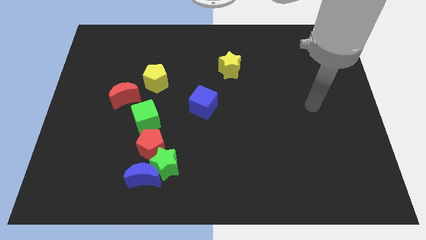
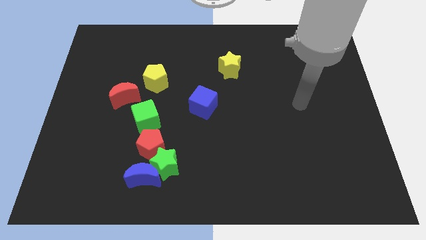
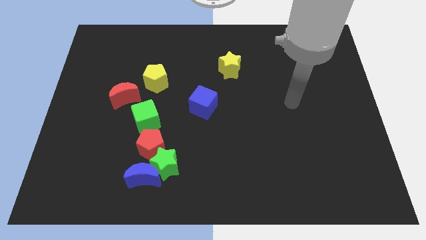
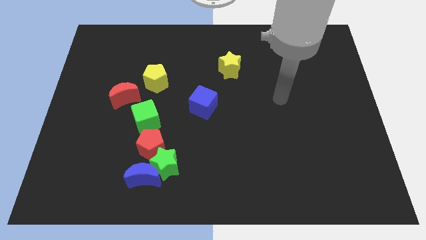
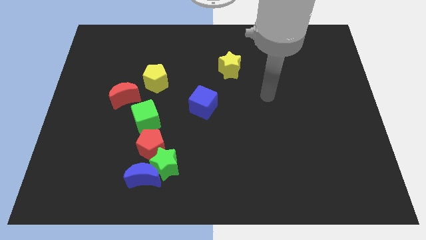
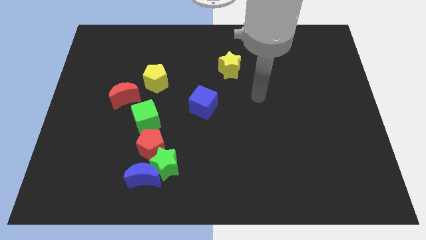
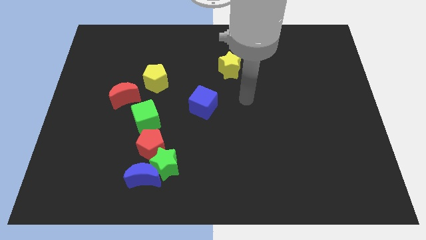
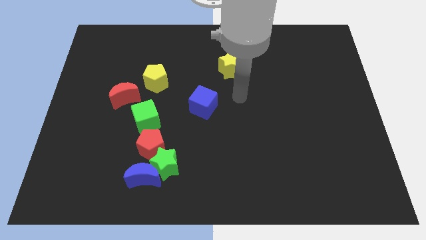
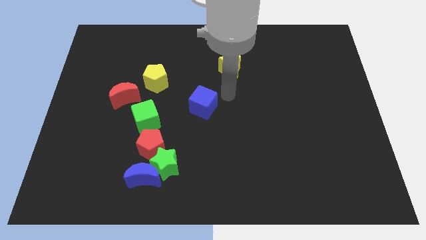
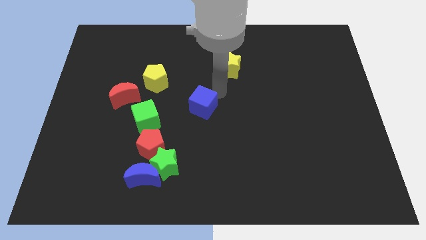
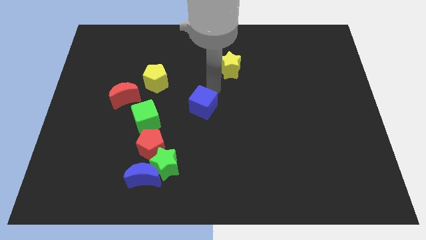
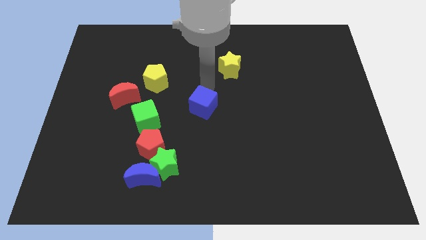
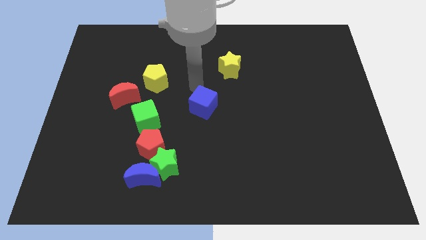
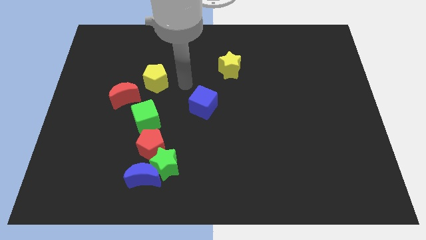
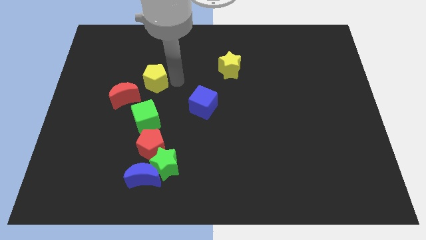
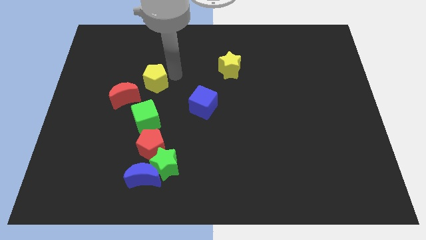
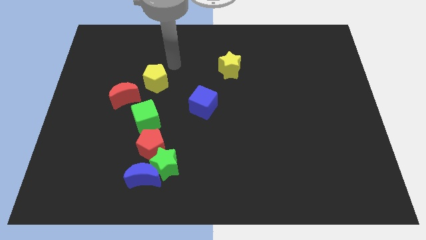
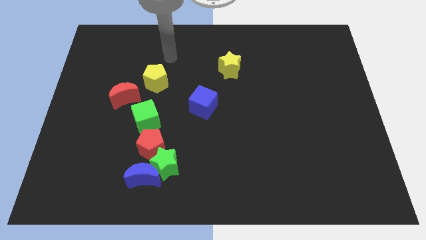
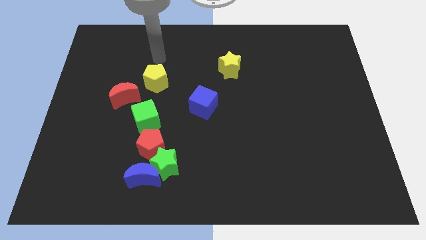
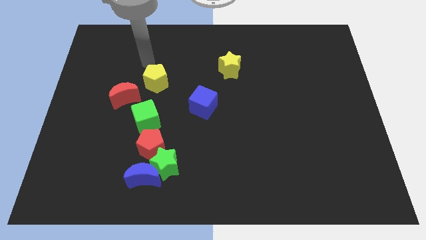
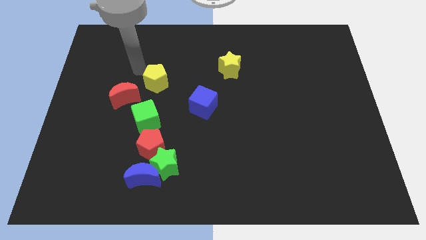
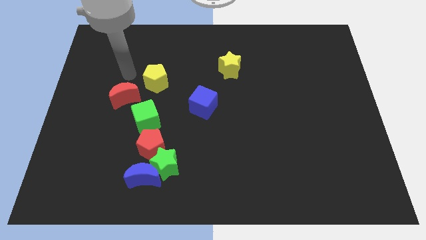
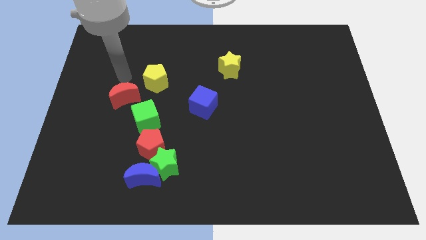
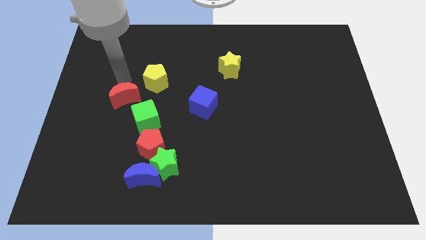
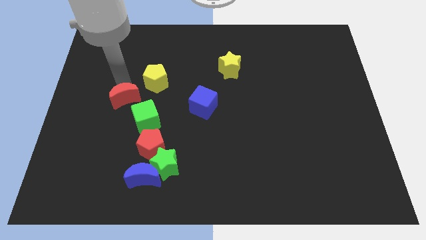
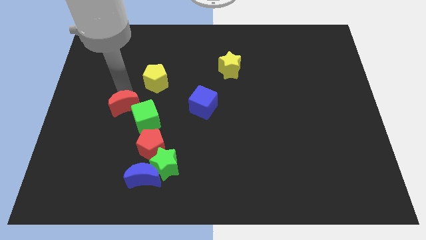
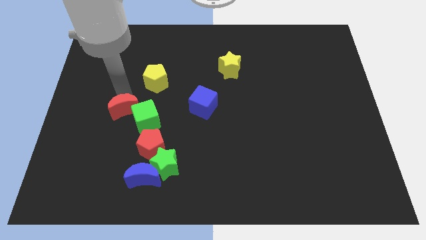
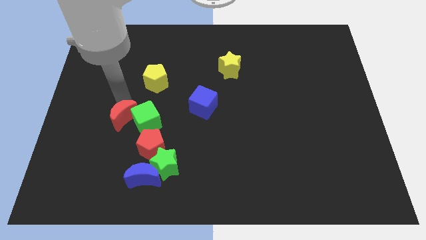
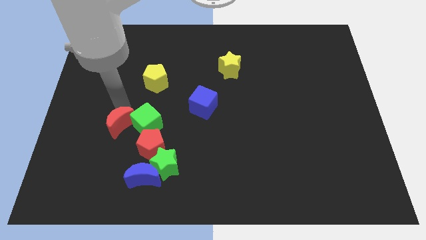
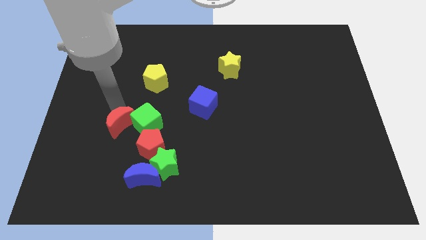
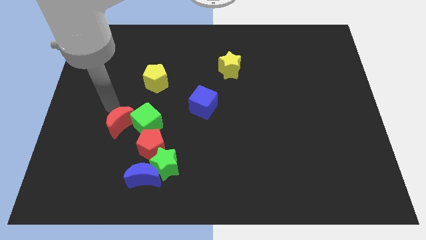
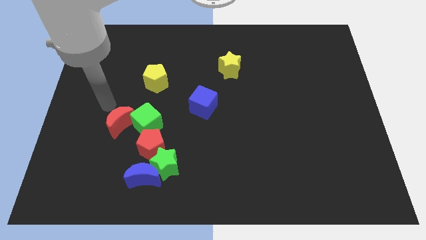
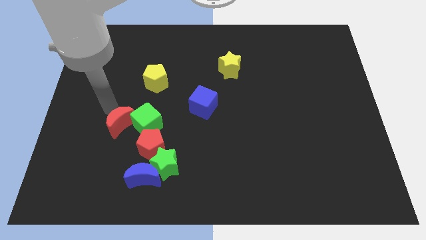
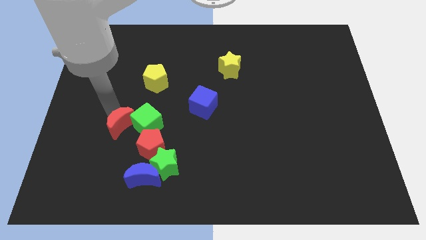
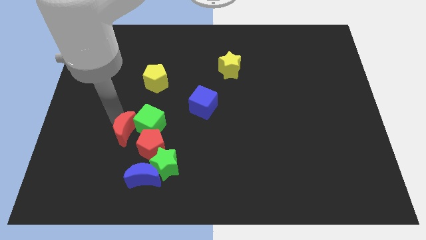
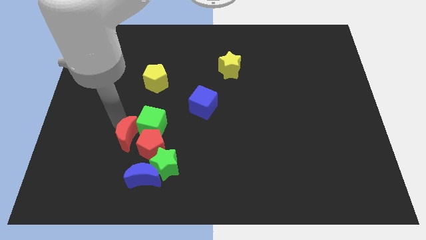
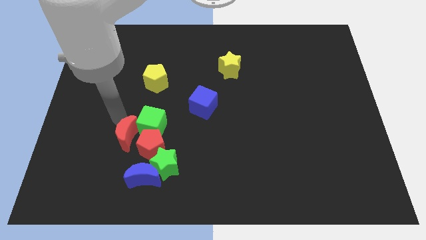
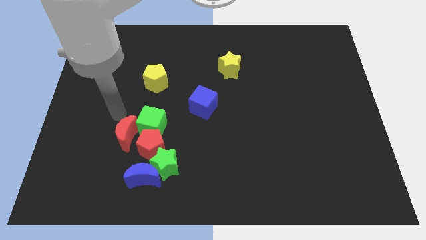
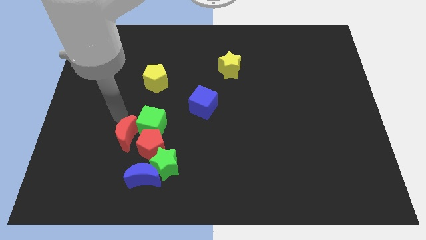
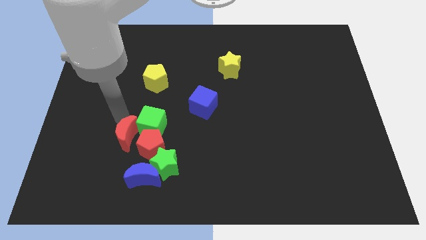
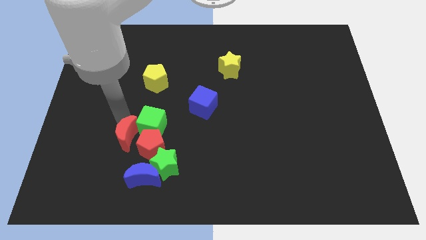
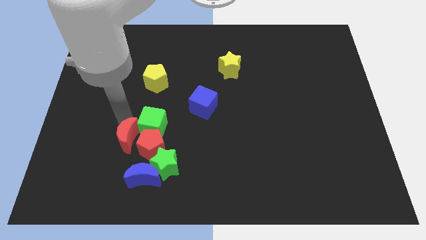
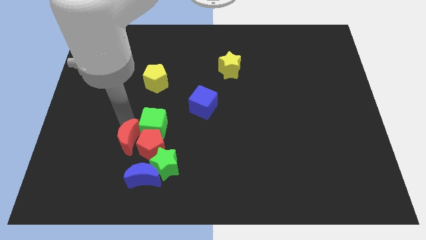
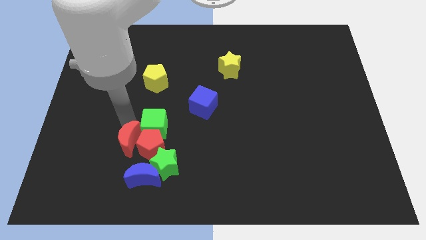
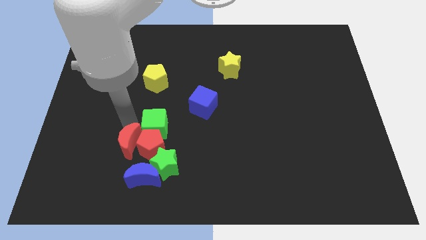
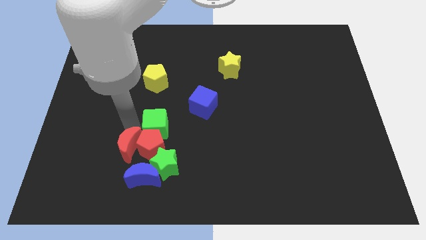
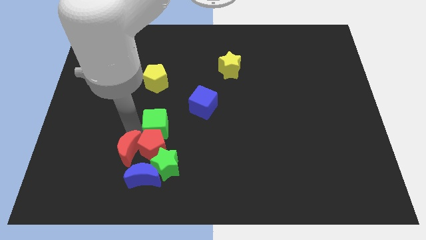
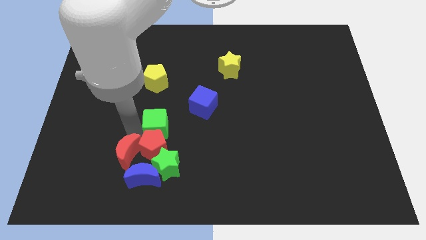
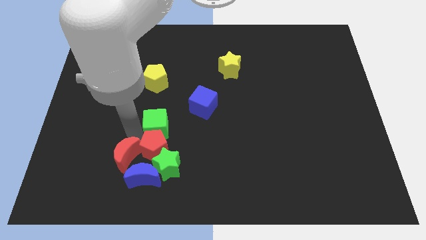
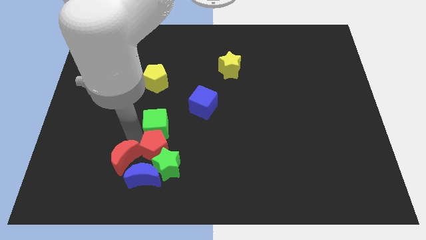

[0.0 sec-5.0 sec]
push the red moon to the blue moon

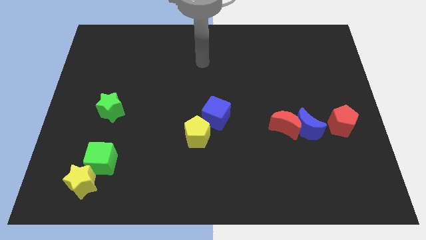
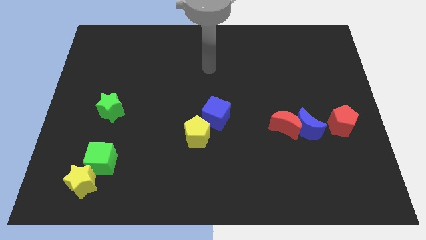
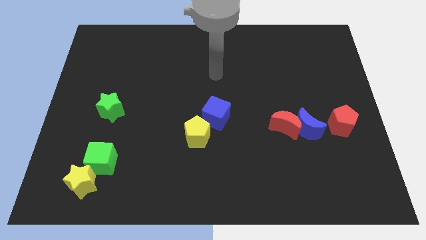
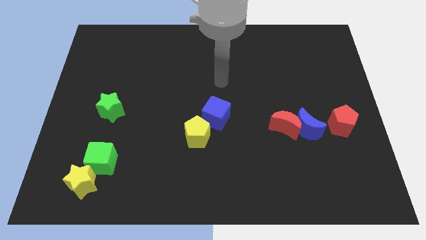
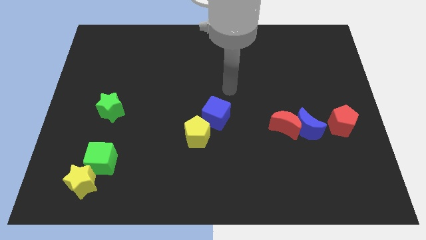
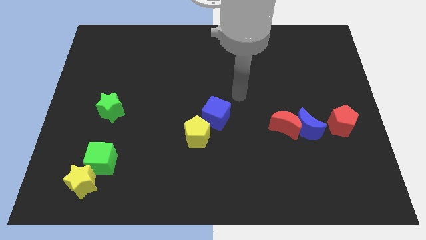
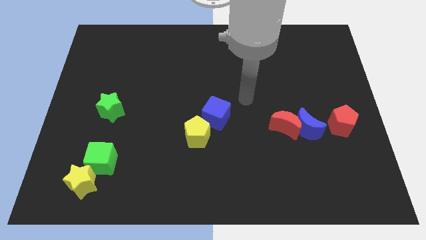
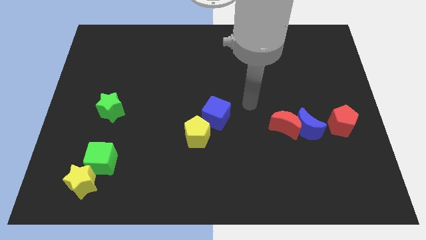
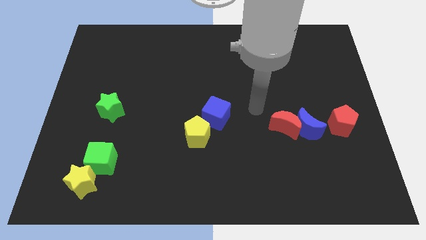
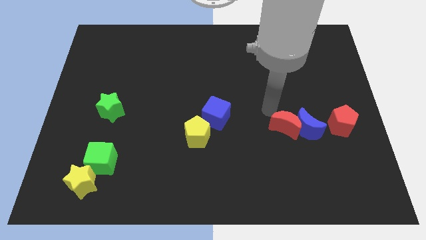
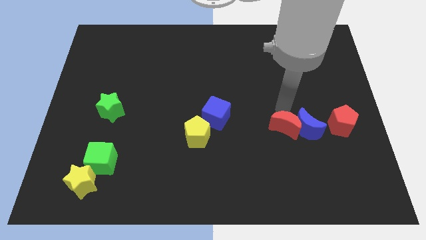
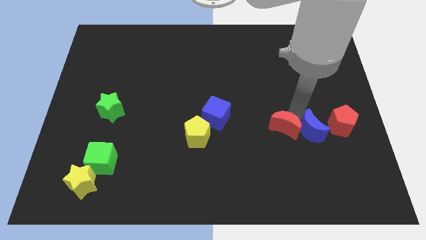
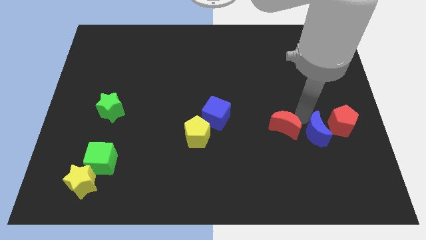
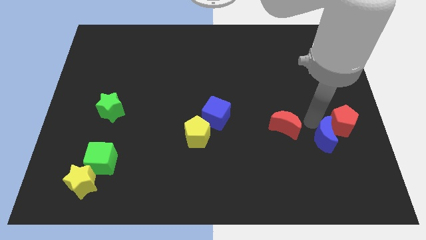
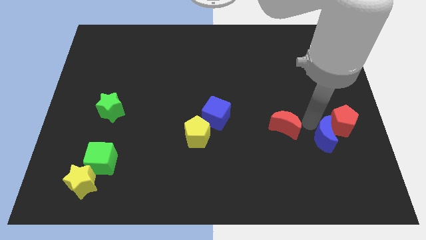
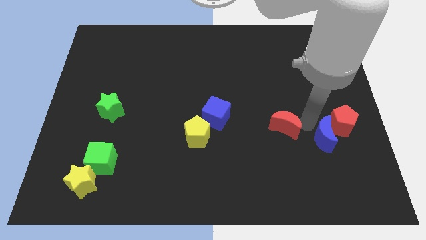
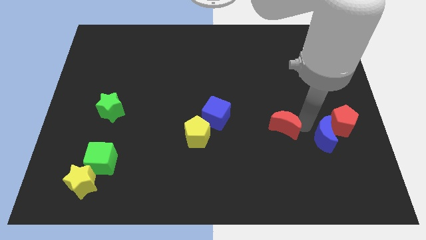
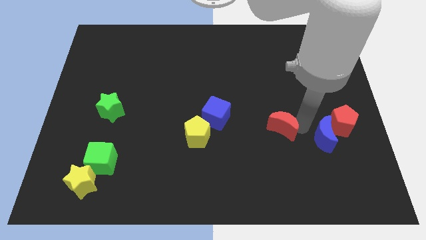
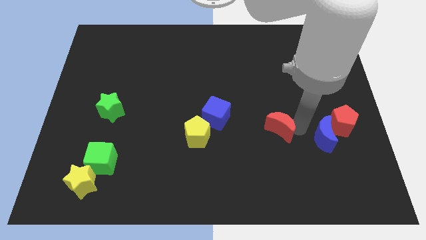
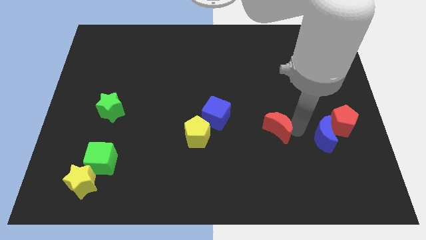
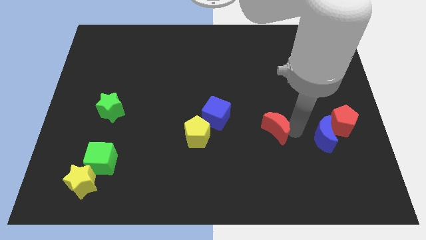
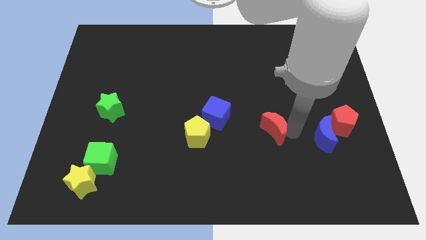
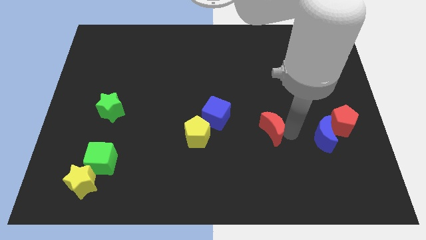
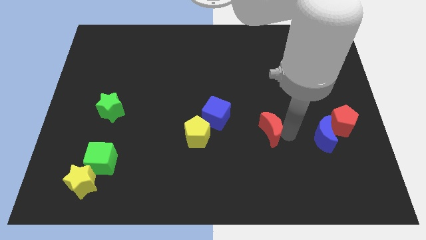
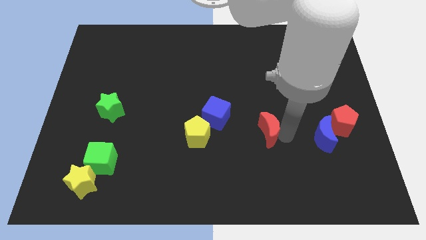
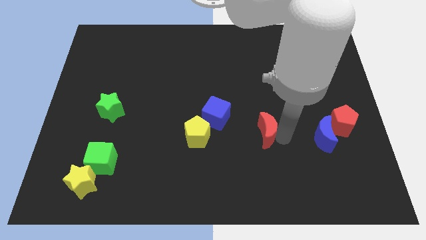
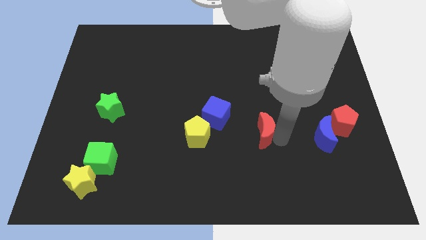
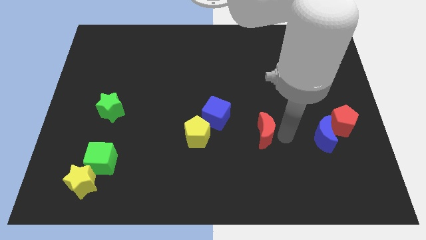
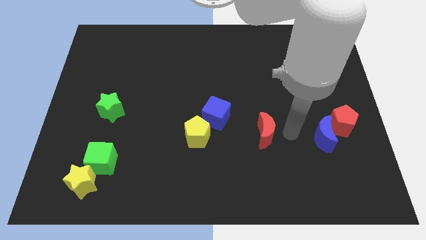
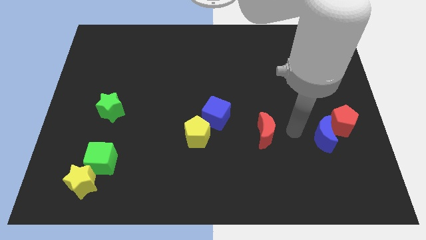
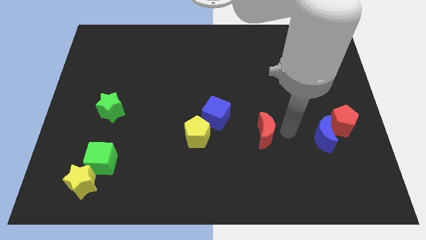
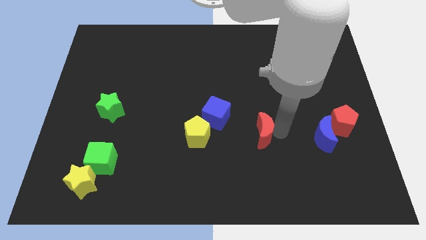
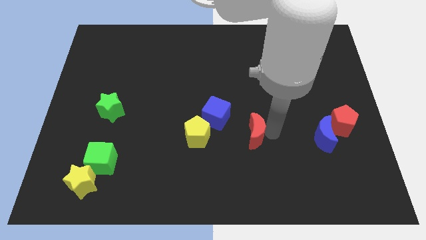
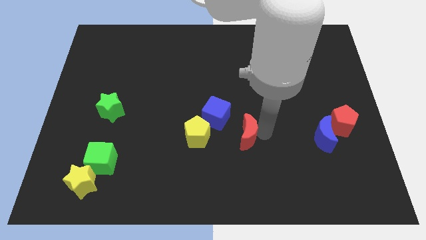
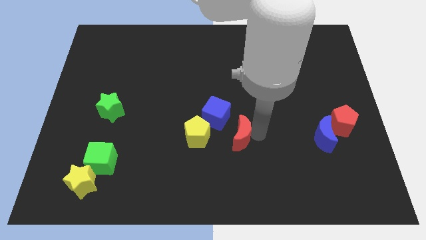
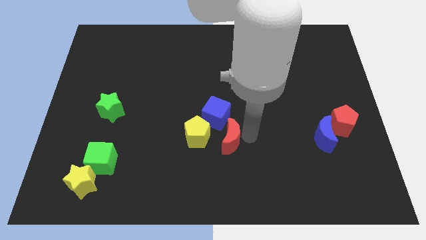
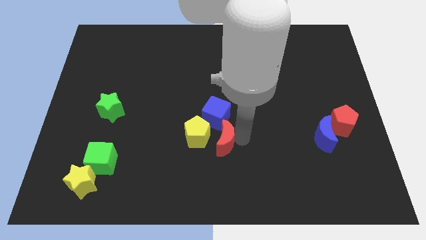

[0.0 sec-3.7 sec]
move the red moon next to the yellow pentagon
